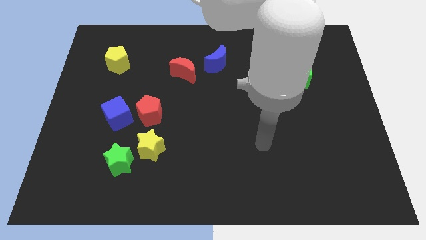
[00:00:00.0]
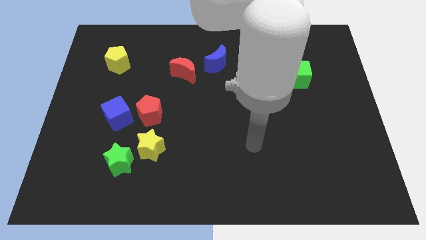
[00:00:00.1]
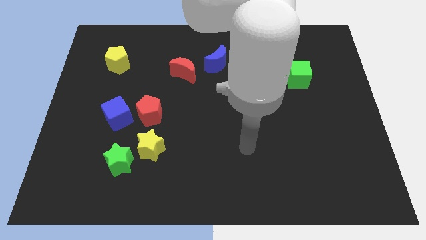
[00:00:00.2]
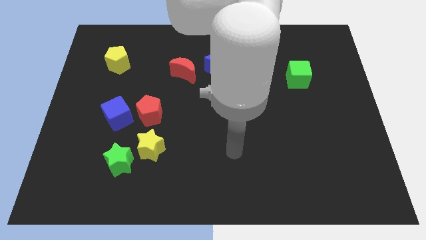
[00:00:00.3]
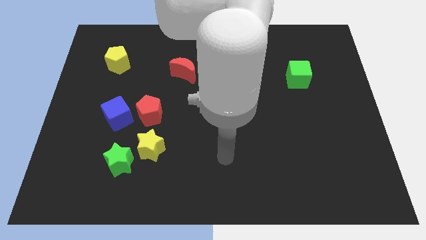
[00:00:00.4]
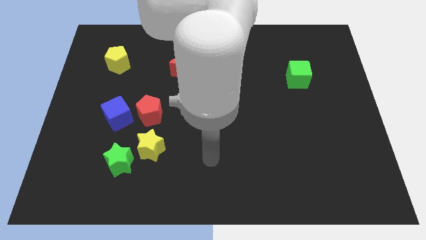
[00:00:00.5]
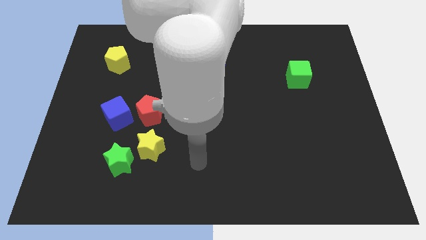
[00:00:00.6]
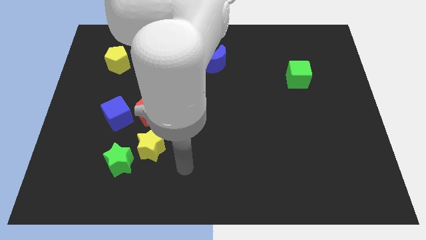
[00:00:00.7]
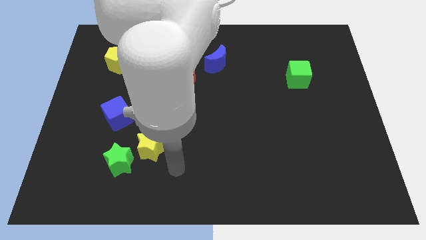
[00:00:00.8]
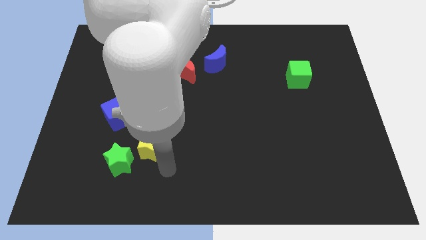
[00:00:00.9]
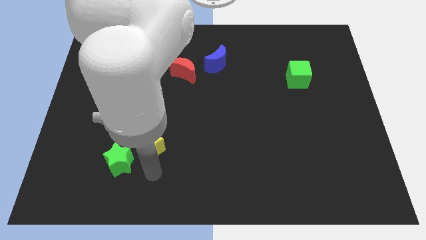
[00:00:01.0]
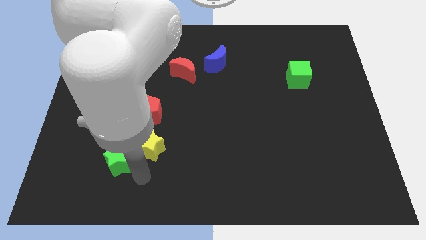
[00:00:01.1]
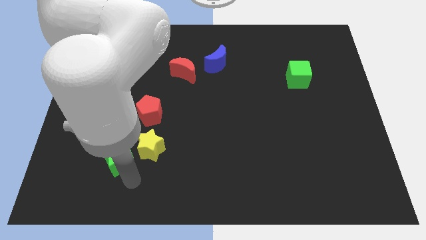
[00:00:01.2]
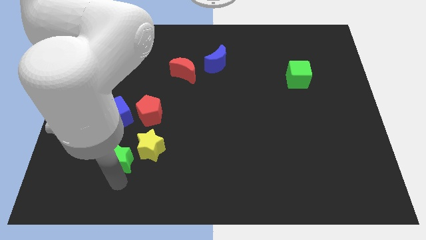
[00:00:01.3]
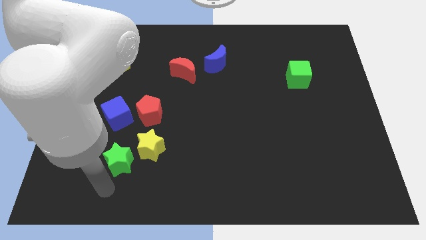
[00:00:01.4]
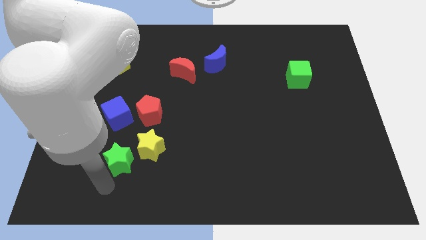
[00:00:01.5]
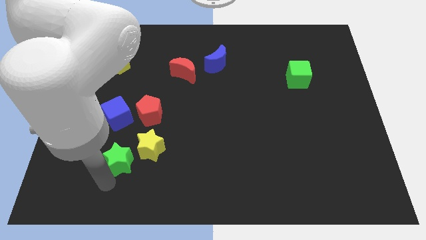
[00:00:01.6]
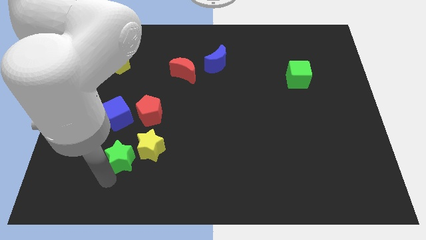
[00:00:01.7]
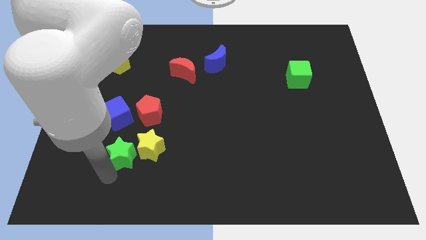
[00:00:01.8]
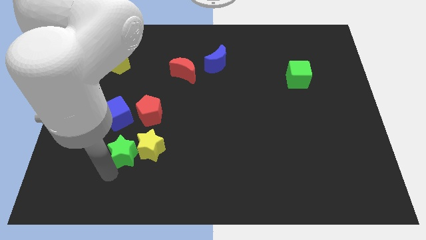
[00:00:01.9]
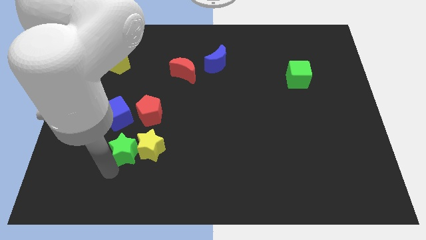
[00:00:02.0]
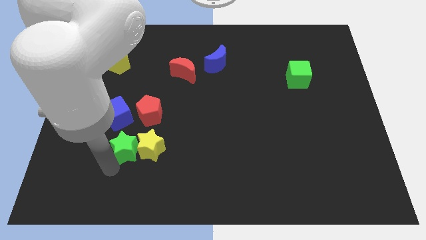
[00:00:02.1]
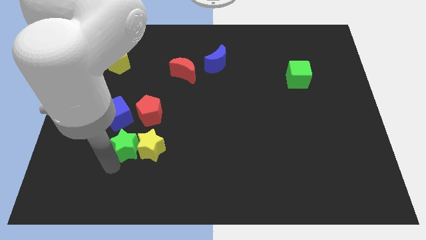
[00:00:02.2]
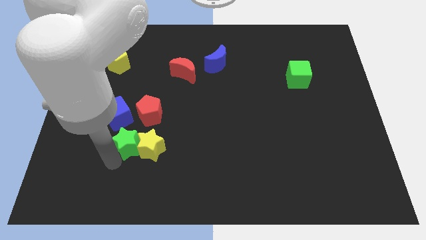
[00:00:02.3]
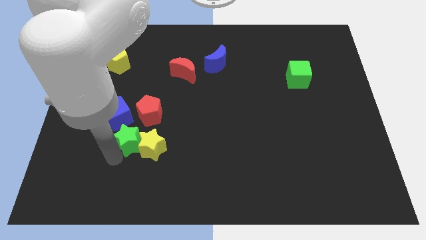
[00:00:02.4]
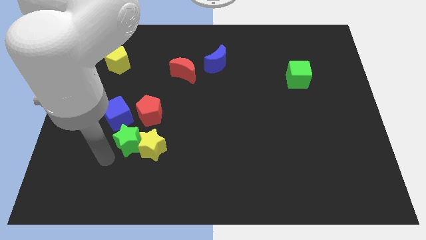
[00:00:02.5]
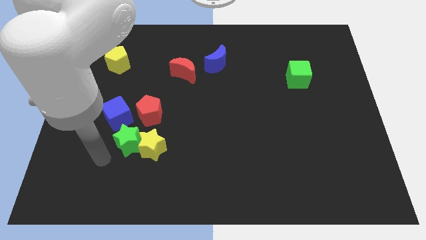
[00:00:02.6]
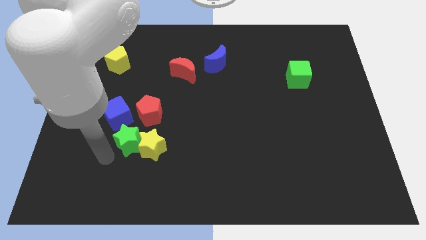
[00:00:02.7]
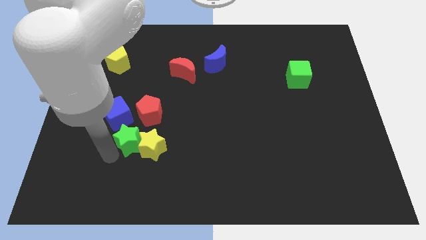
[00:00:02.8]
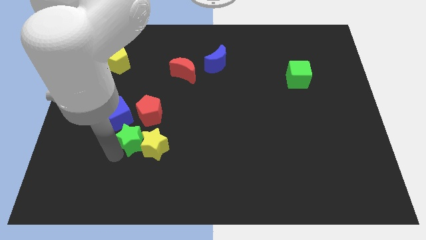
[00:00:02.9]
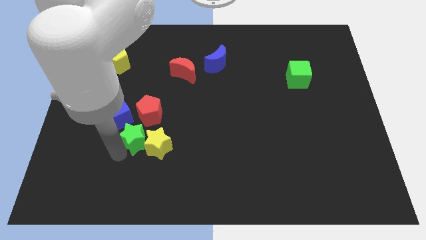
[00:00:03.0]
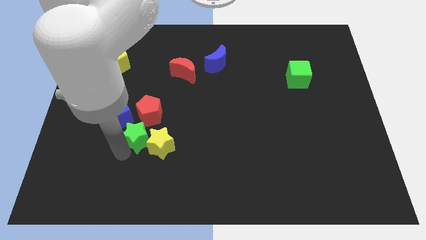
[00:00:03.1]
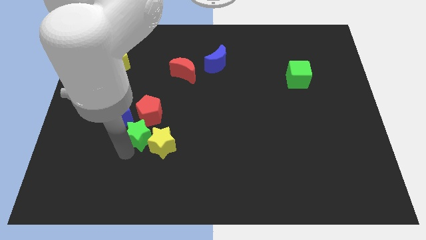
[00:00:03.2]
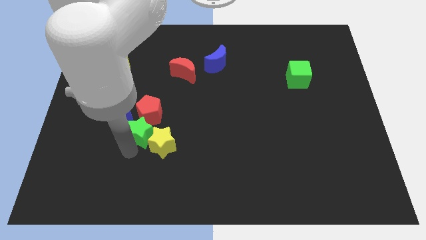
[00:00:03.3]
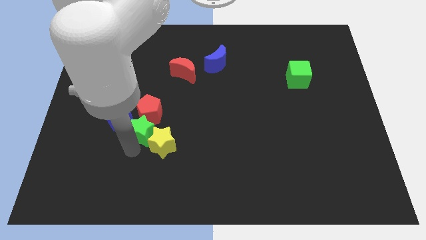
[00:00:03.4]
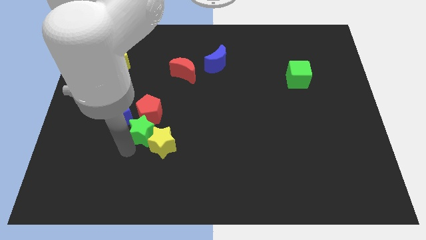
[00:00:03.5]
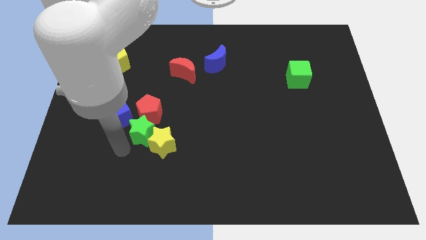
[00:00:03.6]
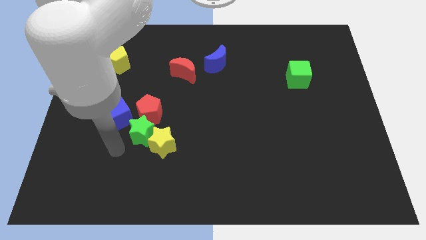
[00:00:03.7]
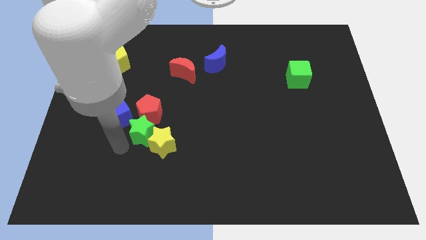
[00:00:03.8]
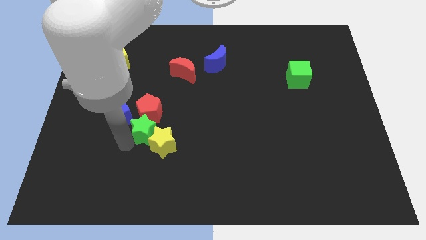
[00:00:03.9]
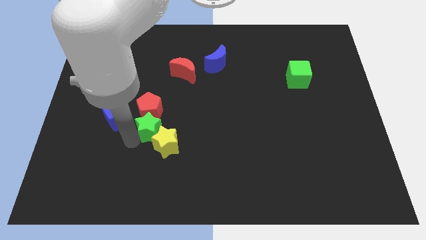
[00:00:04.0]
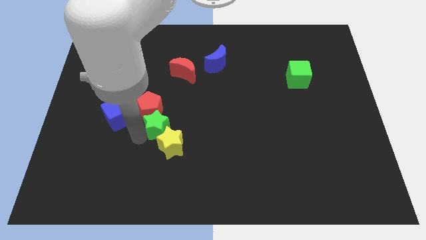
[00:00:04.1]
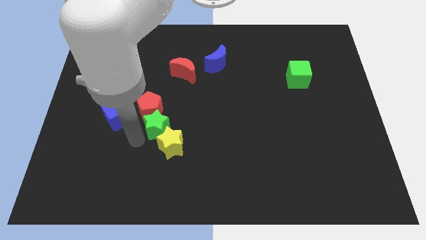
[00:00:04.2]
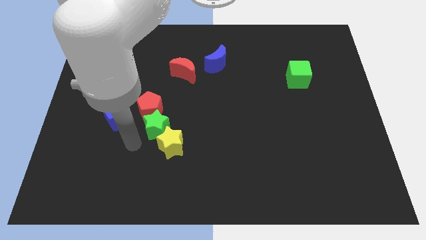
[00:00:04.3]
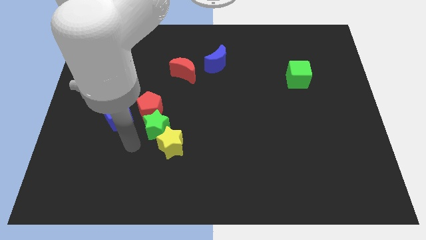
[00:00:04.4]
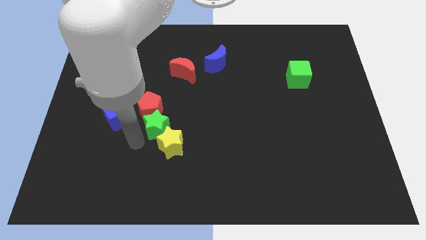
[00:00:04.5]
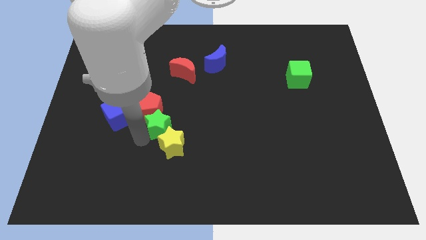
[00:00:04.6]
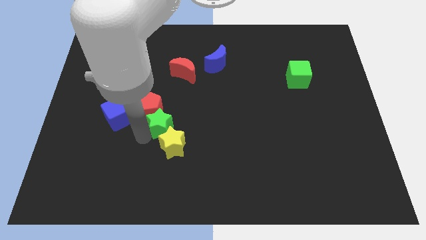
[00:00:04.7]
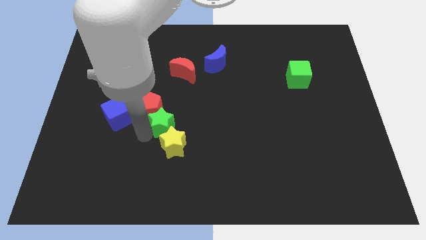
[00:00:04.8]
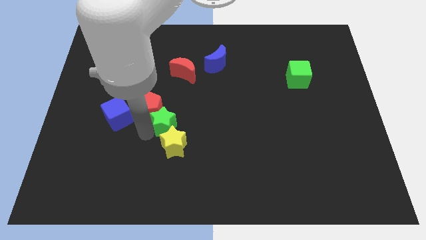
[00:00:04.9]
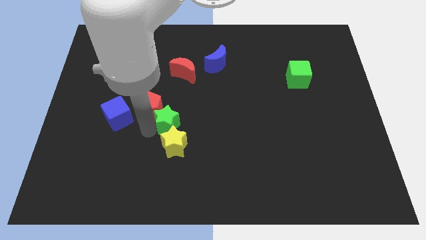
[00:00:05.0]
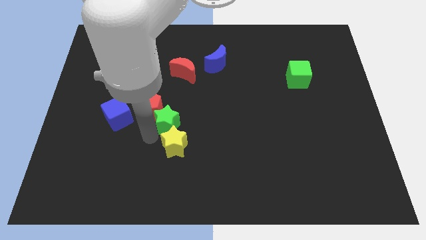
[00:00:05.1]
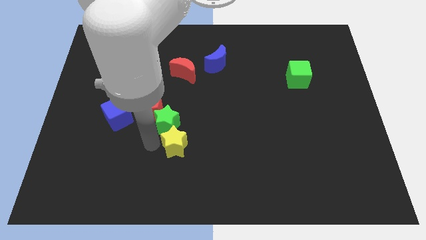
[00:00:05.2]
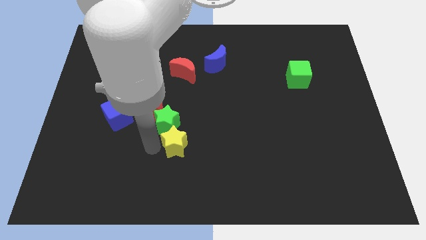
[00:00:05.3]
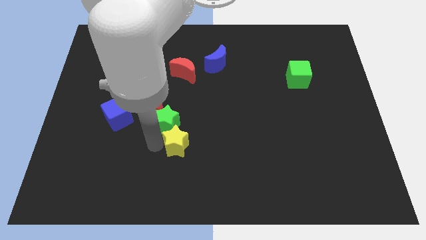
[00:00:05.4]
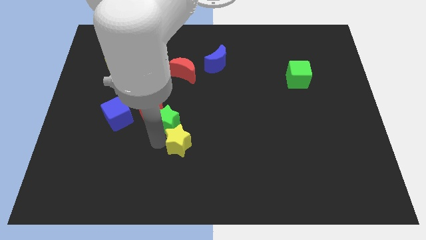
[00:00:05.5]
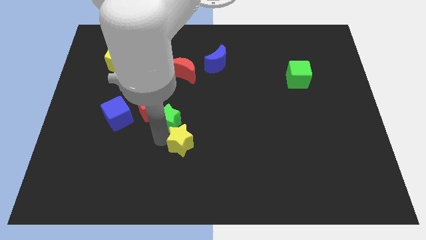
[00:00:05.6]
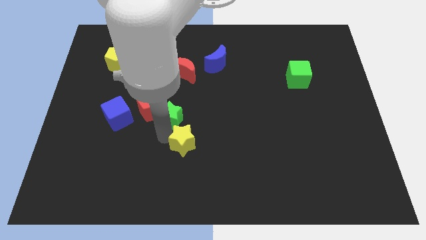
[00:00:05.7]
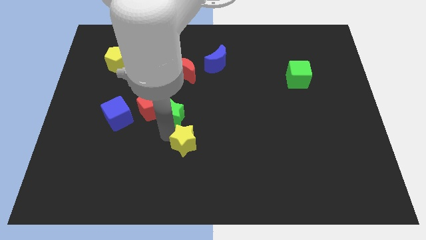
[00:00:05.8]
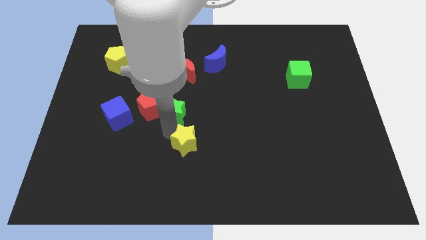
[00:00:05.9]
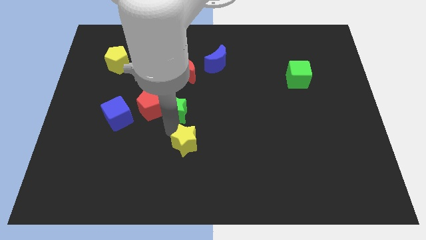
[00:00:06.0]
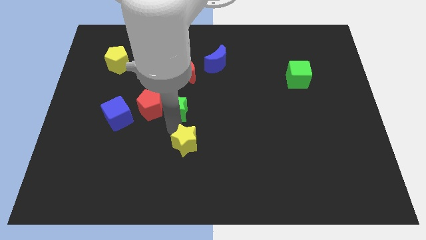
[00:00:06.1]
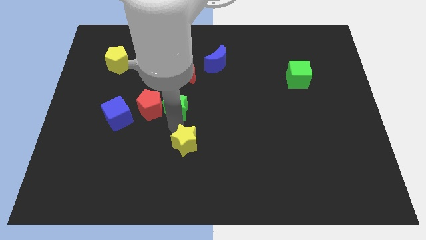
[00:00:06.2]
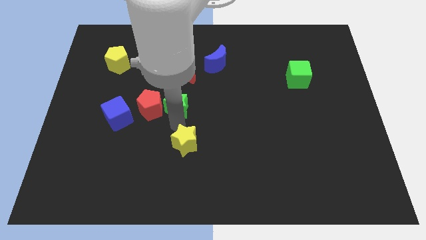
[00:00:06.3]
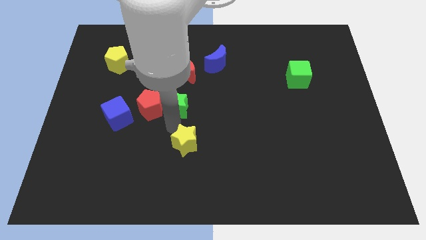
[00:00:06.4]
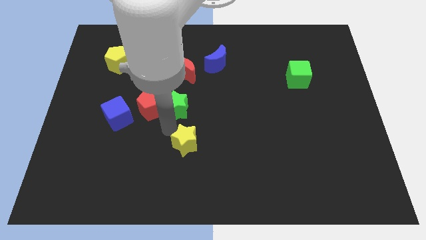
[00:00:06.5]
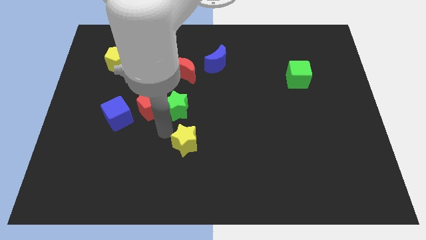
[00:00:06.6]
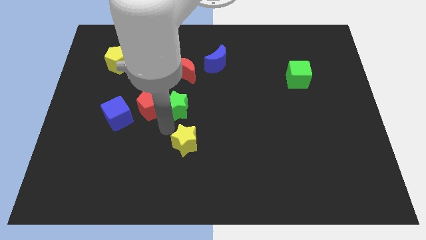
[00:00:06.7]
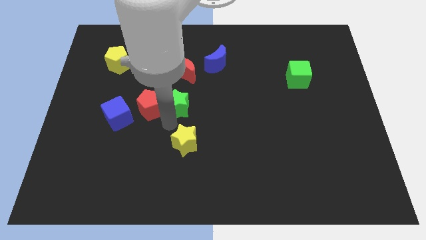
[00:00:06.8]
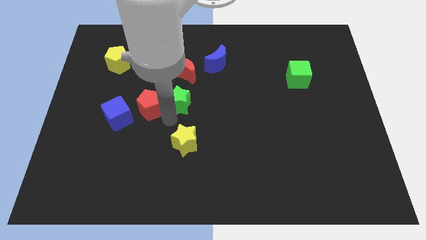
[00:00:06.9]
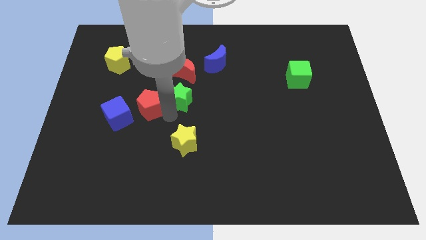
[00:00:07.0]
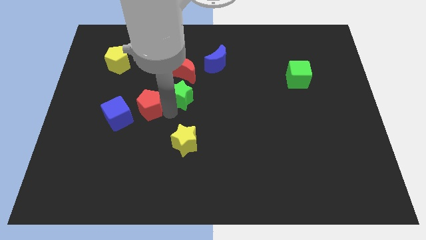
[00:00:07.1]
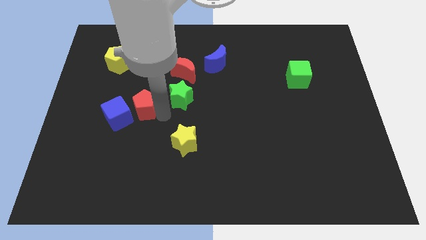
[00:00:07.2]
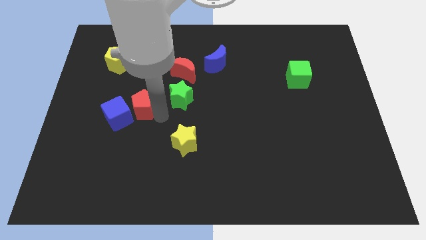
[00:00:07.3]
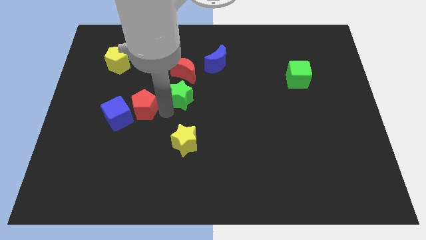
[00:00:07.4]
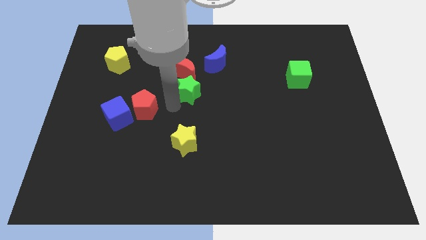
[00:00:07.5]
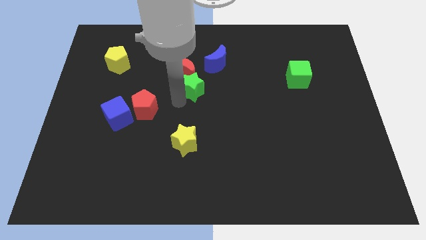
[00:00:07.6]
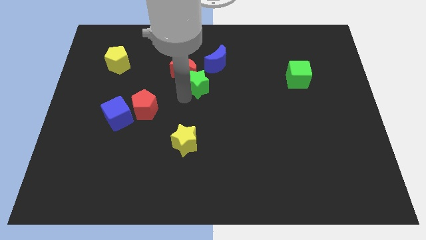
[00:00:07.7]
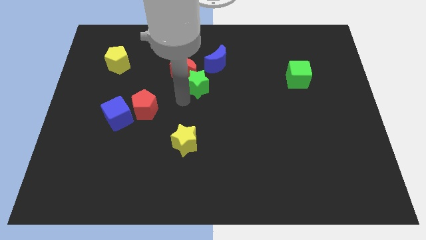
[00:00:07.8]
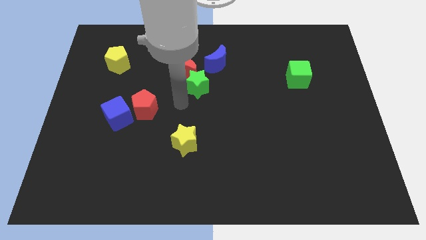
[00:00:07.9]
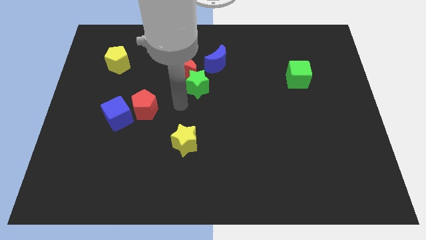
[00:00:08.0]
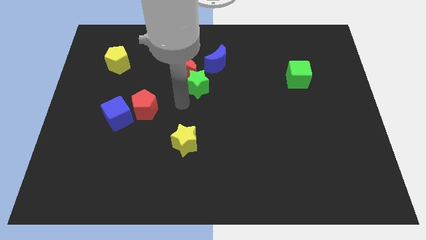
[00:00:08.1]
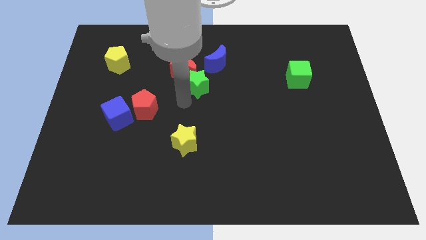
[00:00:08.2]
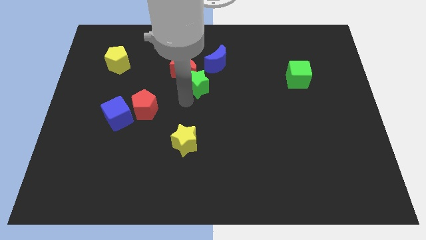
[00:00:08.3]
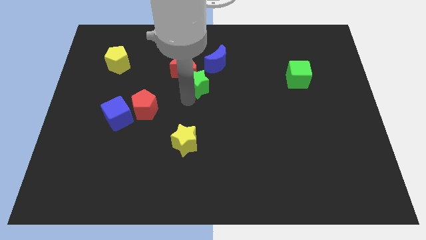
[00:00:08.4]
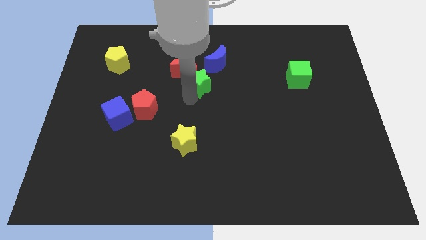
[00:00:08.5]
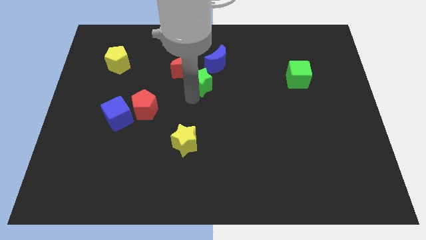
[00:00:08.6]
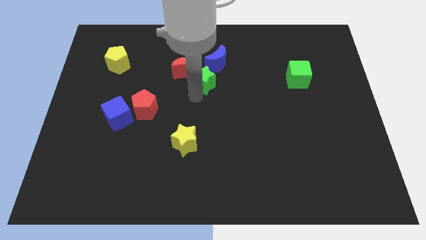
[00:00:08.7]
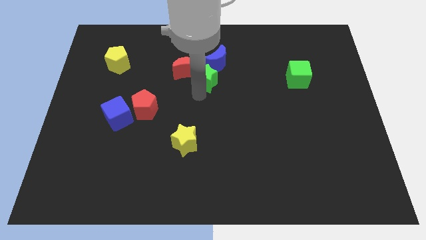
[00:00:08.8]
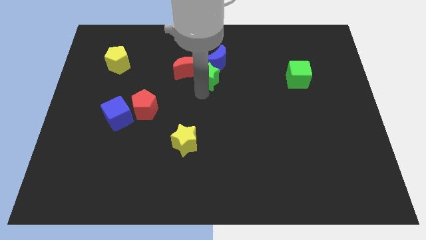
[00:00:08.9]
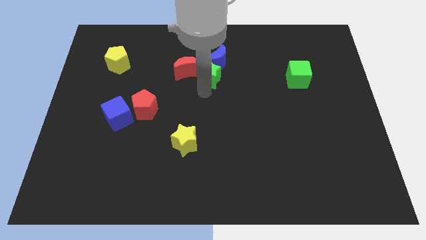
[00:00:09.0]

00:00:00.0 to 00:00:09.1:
put the green star next to the blue moon
